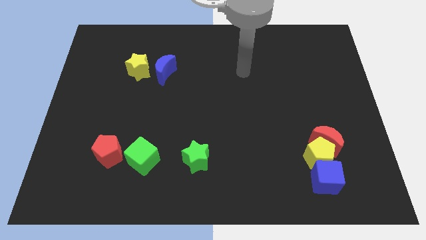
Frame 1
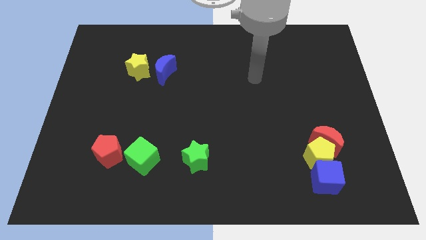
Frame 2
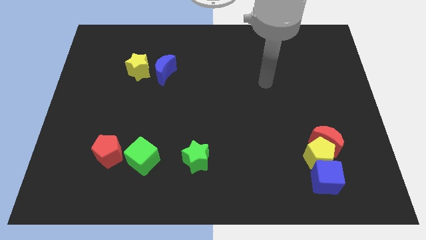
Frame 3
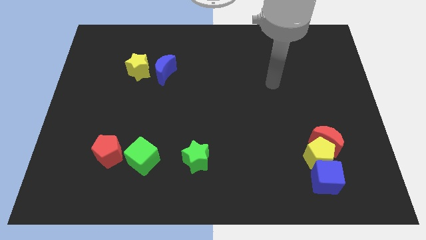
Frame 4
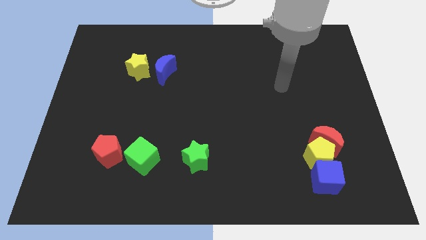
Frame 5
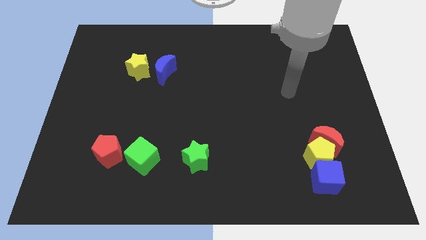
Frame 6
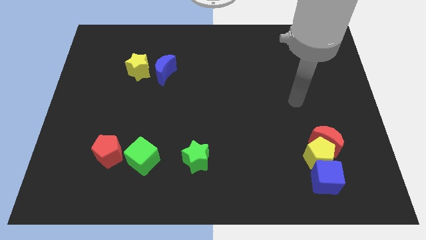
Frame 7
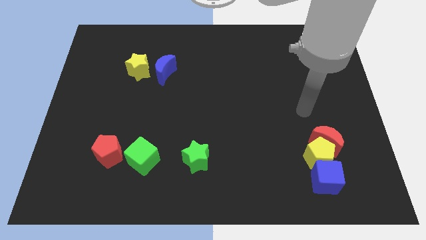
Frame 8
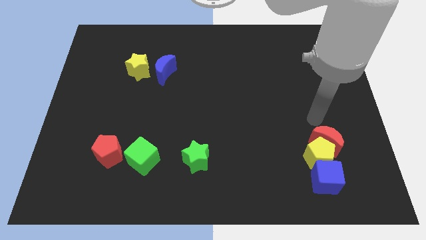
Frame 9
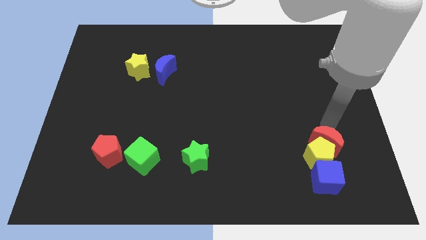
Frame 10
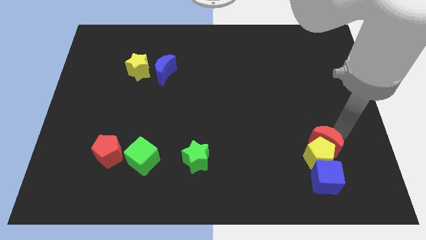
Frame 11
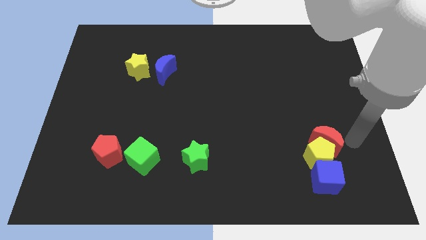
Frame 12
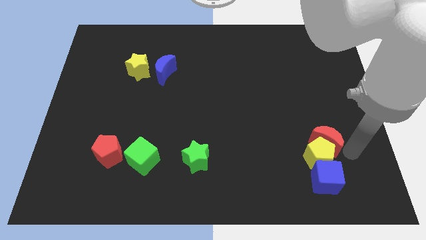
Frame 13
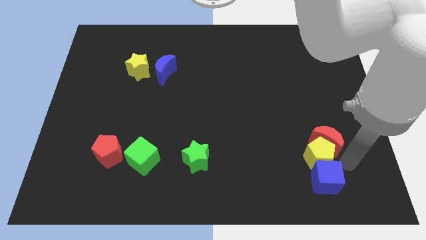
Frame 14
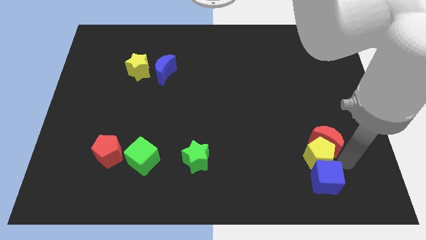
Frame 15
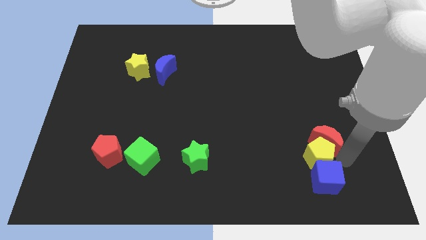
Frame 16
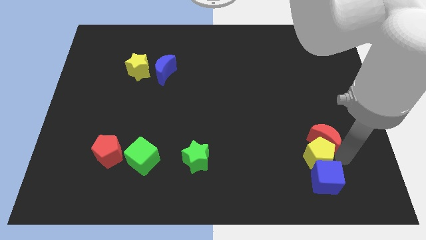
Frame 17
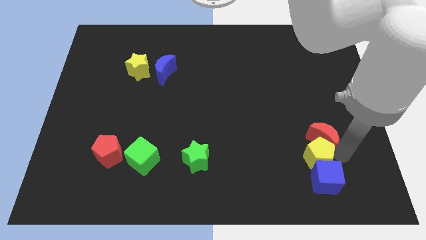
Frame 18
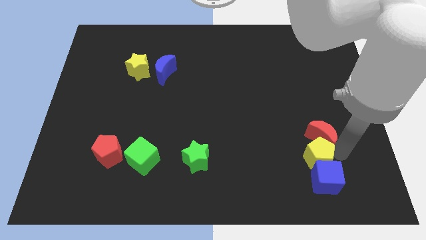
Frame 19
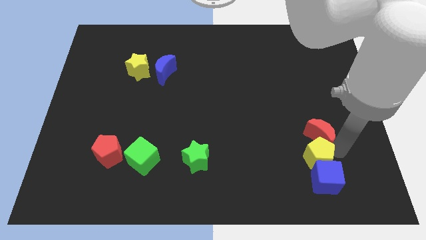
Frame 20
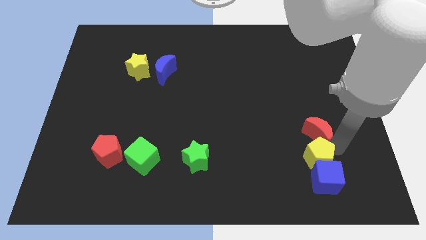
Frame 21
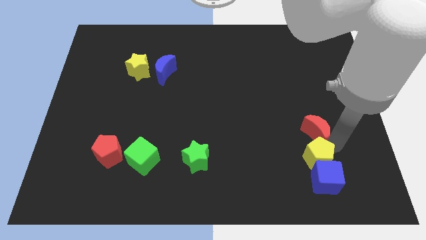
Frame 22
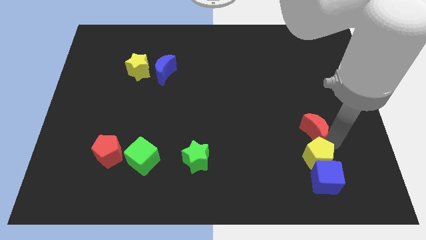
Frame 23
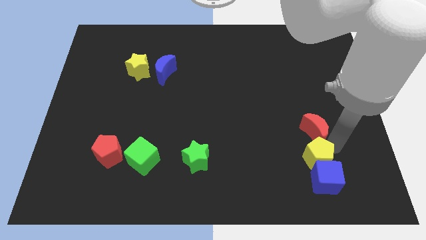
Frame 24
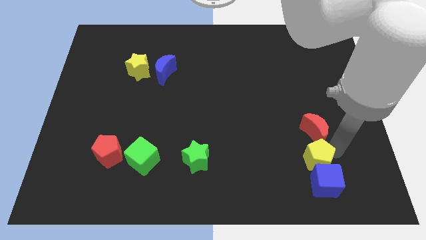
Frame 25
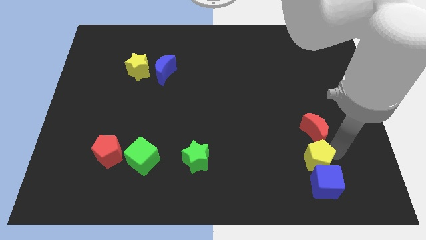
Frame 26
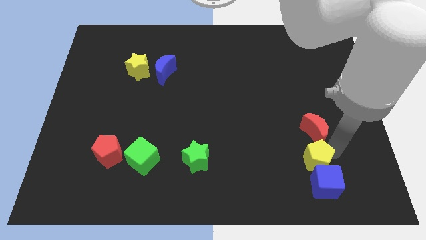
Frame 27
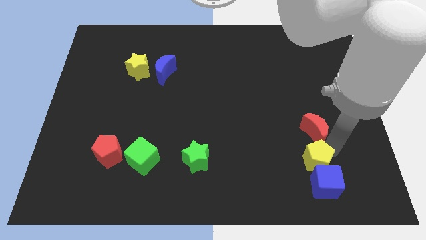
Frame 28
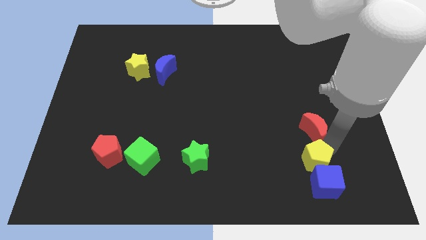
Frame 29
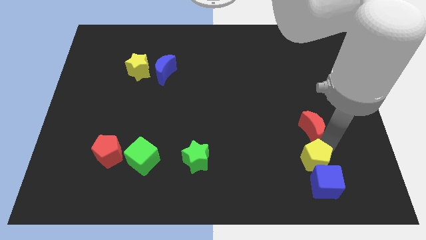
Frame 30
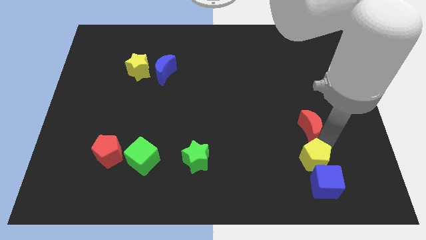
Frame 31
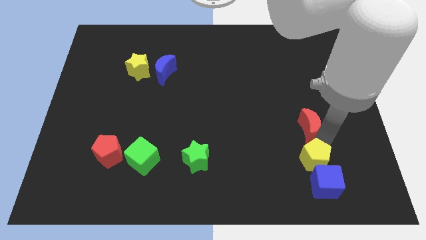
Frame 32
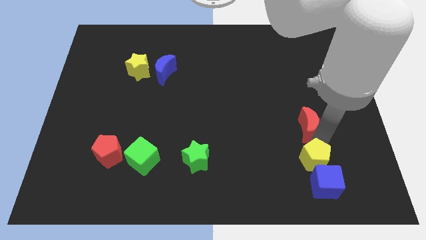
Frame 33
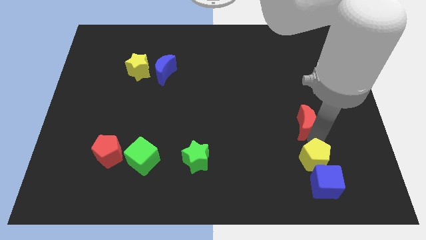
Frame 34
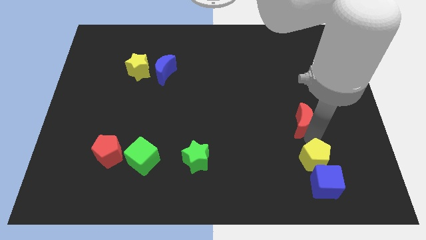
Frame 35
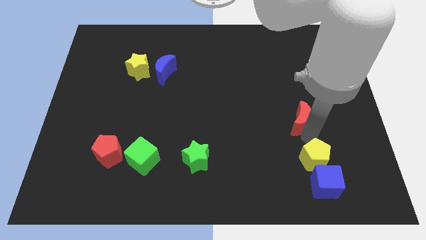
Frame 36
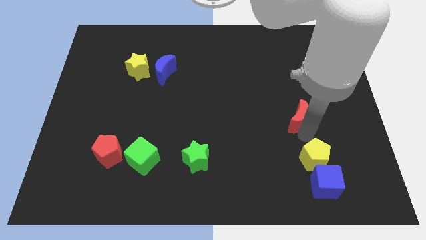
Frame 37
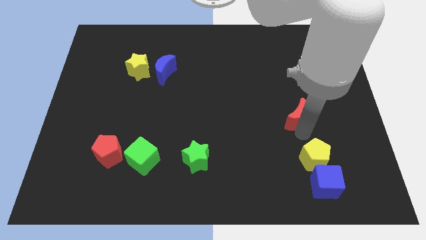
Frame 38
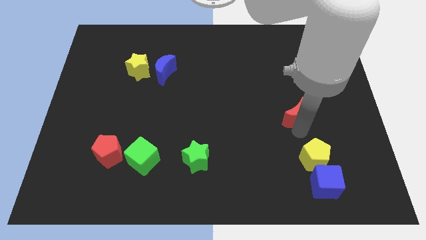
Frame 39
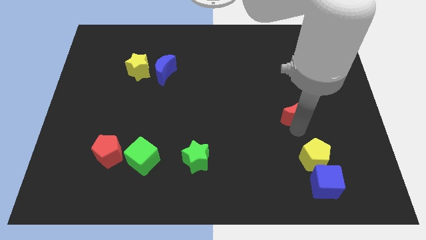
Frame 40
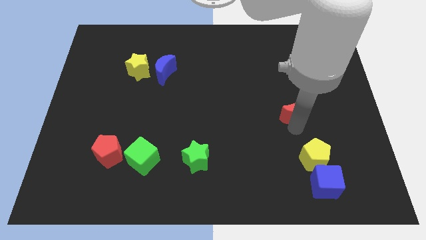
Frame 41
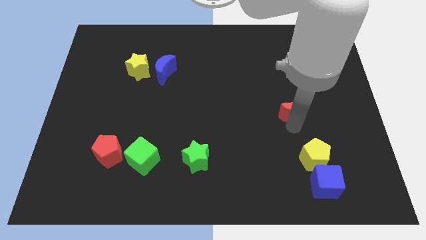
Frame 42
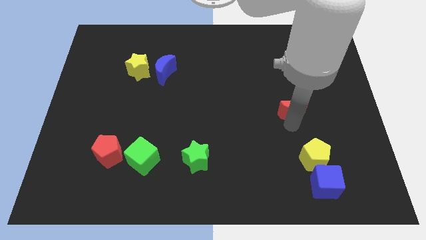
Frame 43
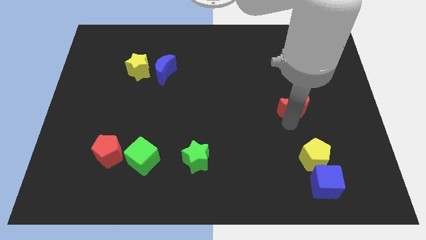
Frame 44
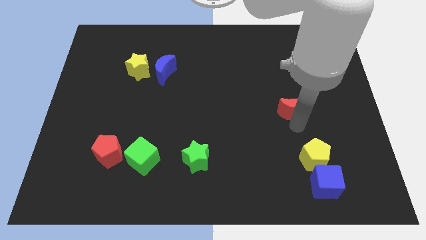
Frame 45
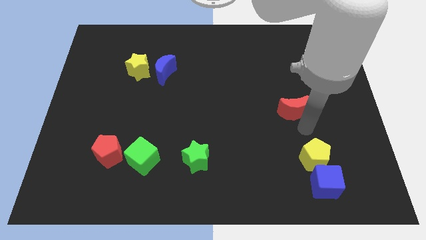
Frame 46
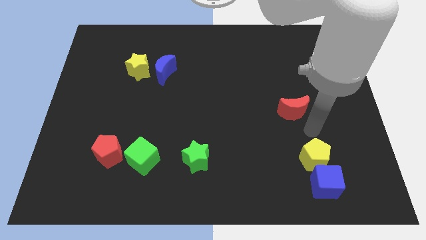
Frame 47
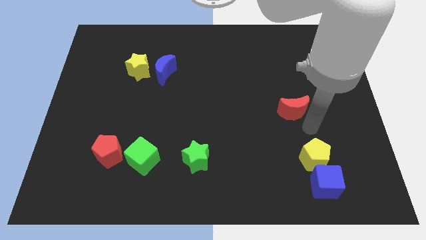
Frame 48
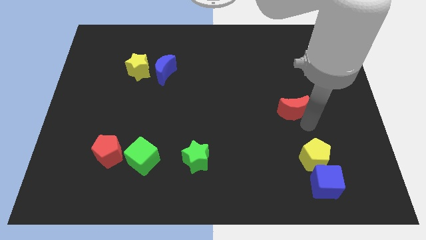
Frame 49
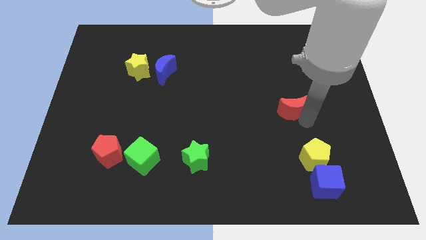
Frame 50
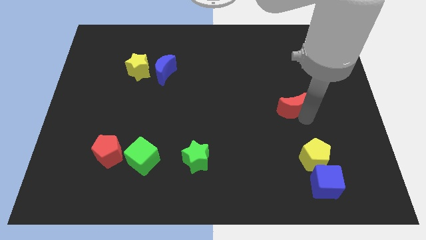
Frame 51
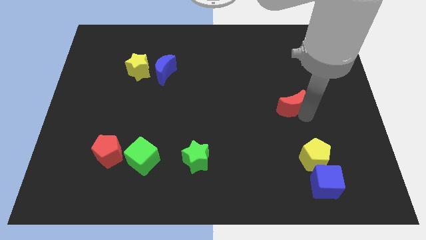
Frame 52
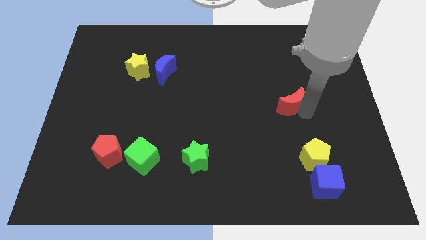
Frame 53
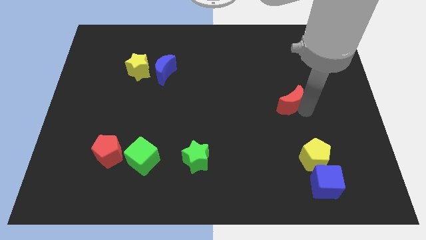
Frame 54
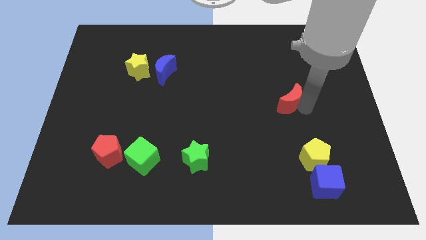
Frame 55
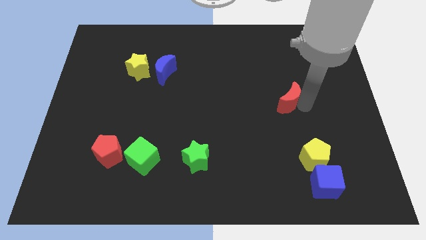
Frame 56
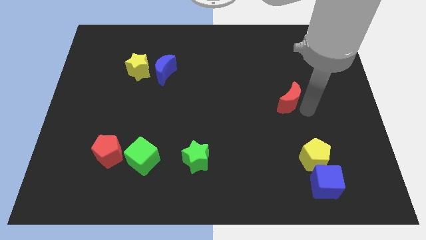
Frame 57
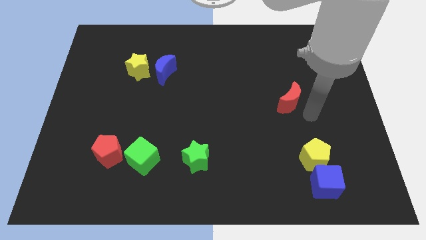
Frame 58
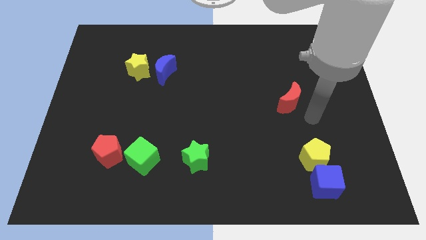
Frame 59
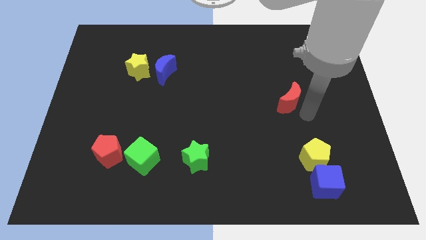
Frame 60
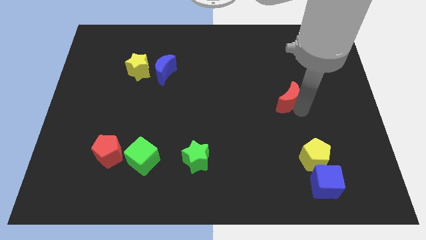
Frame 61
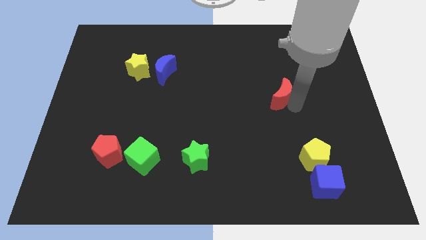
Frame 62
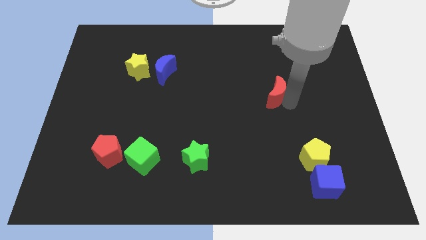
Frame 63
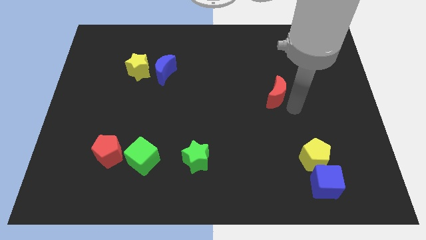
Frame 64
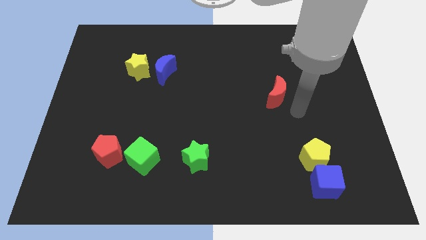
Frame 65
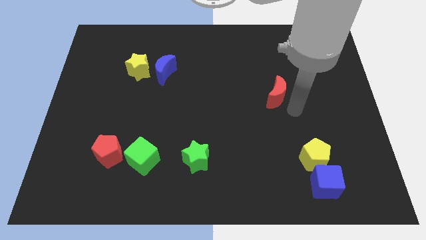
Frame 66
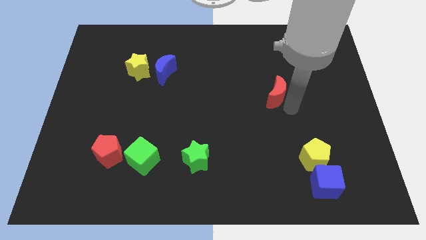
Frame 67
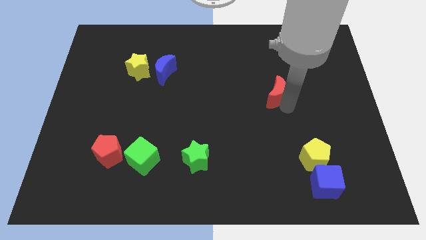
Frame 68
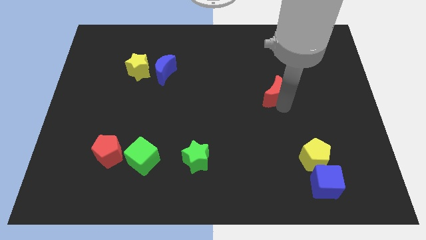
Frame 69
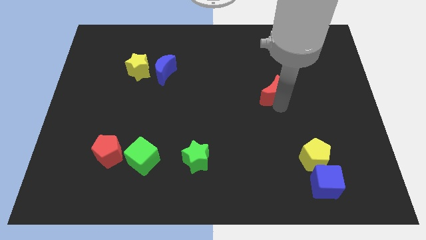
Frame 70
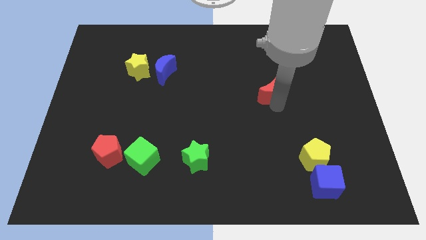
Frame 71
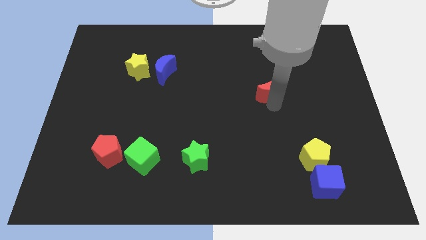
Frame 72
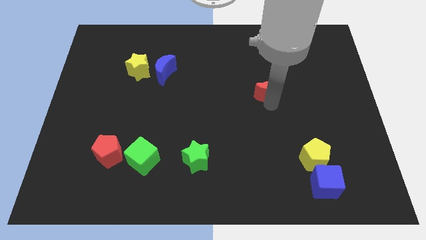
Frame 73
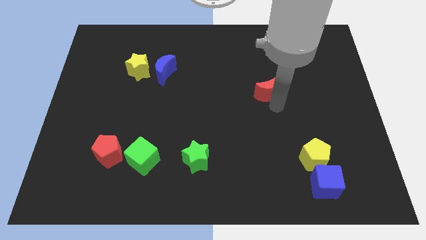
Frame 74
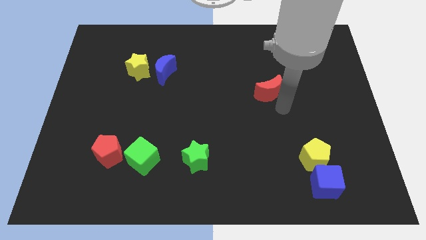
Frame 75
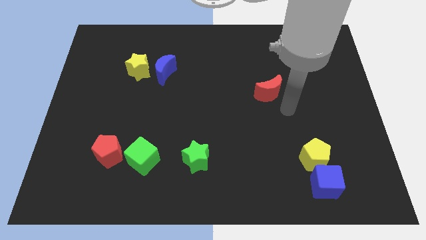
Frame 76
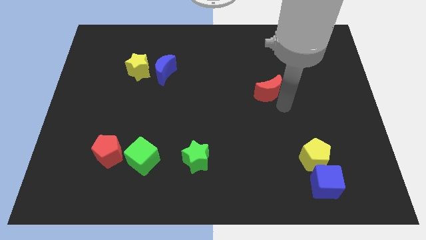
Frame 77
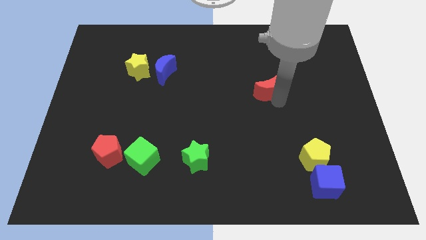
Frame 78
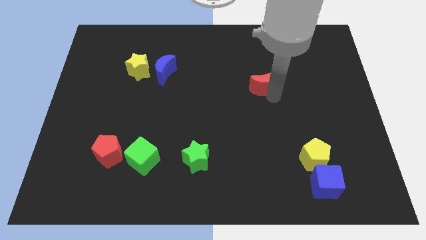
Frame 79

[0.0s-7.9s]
move the red moon up and left diagonally

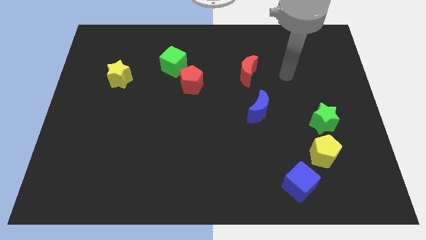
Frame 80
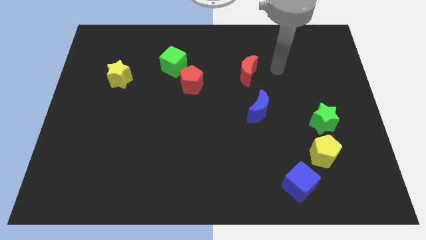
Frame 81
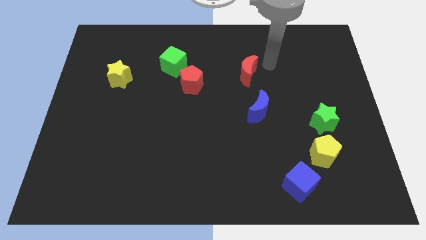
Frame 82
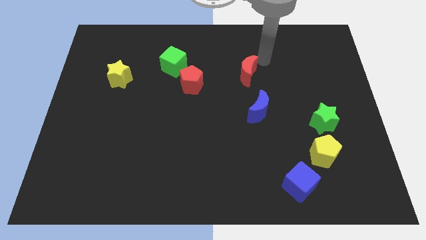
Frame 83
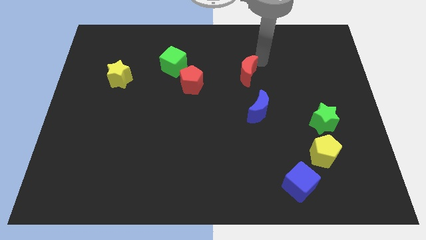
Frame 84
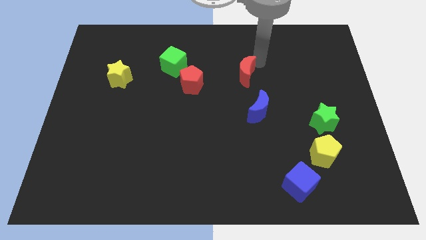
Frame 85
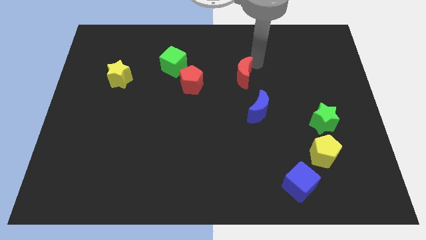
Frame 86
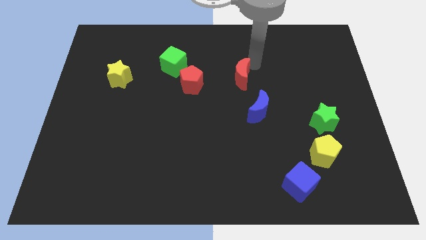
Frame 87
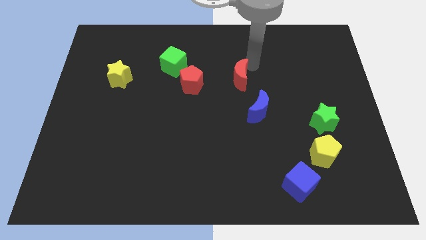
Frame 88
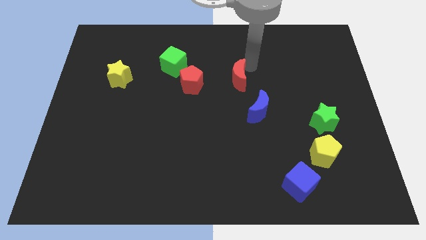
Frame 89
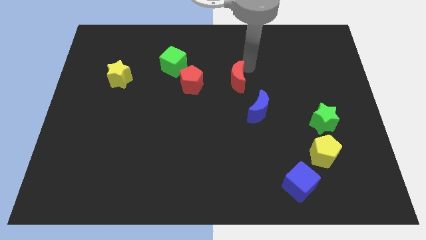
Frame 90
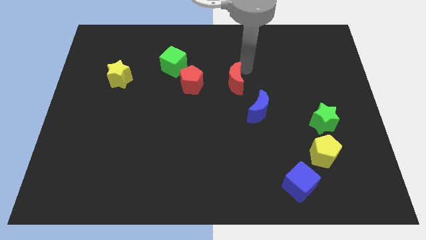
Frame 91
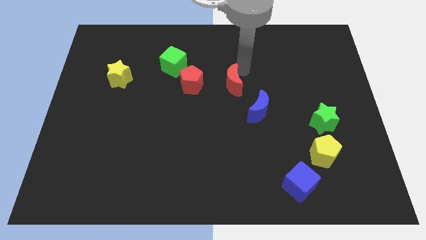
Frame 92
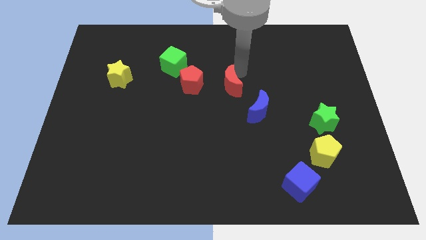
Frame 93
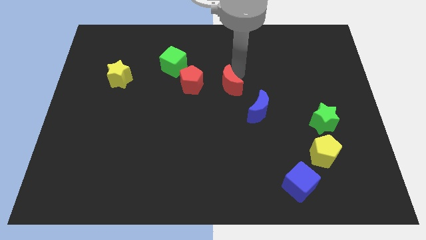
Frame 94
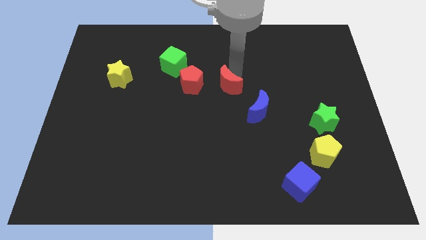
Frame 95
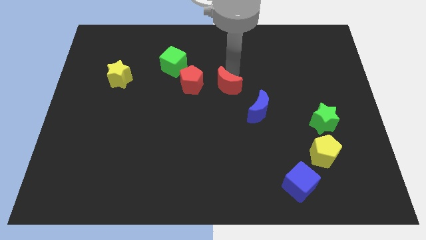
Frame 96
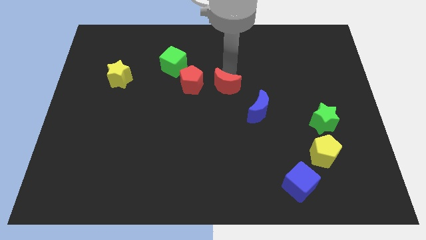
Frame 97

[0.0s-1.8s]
move the red moon down and left a little
